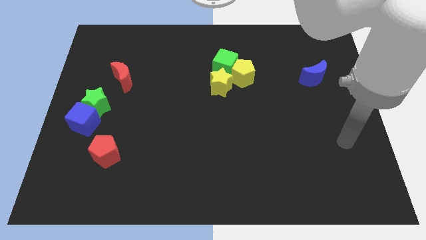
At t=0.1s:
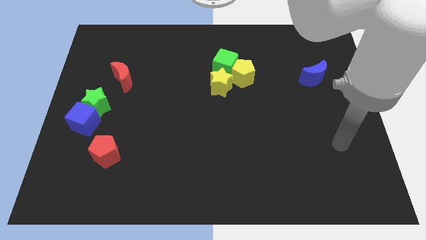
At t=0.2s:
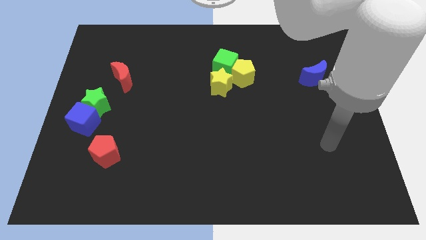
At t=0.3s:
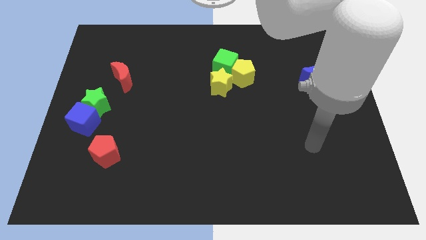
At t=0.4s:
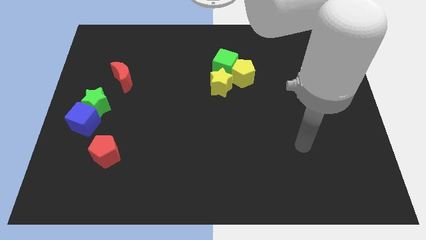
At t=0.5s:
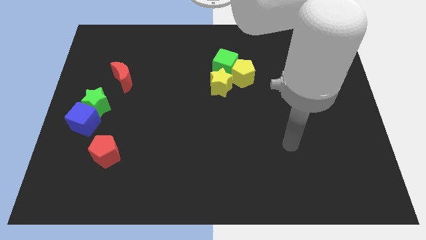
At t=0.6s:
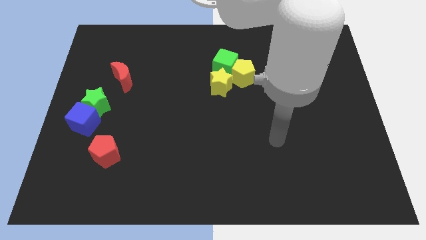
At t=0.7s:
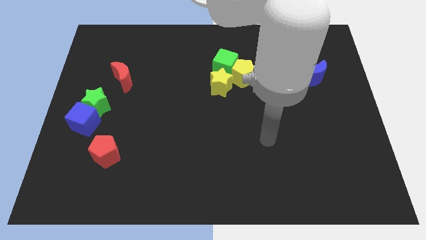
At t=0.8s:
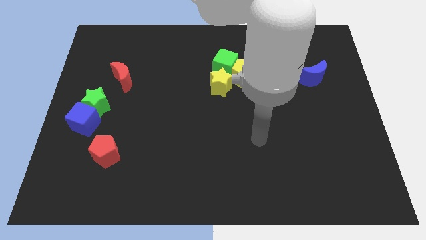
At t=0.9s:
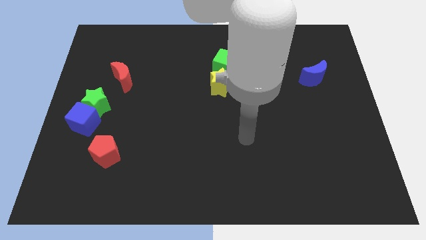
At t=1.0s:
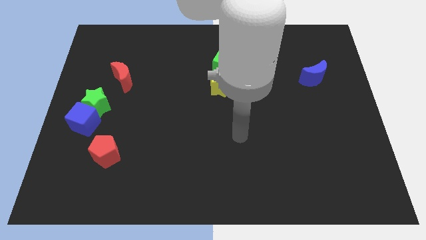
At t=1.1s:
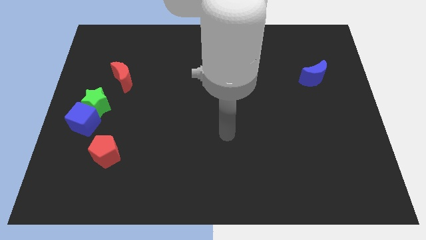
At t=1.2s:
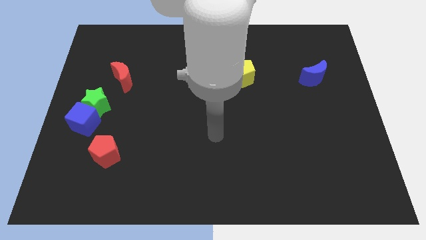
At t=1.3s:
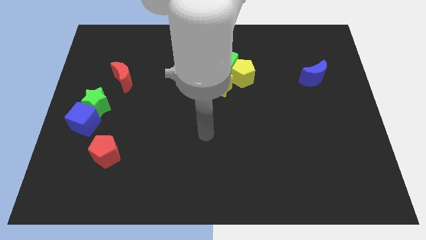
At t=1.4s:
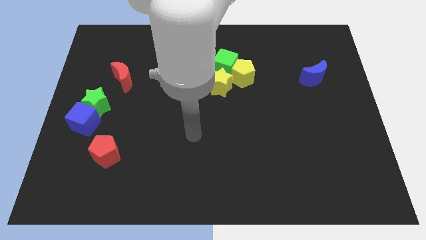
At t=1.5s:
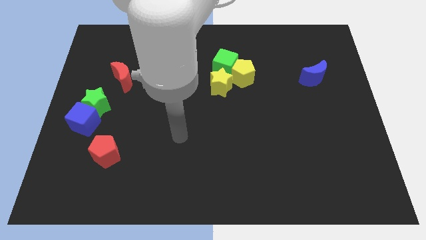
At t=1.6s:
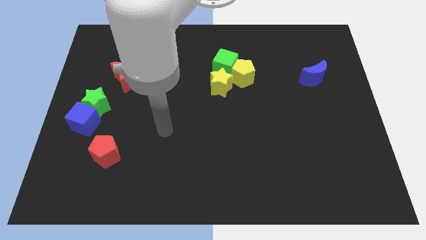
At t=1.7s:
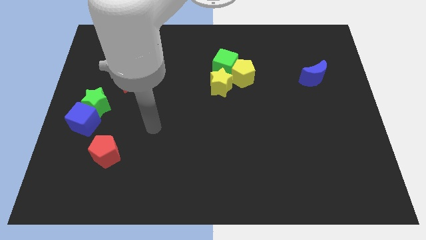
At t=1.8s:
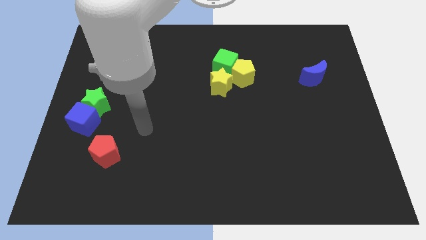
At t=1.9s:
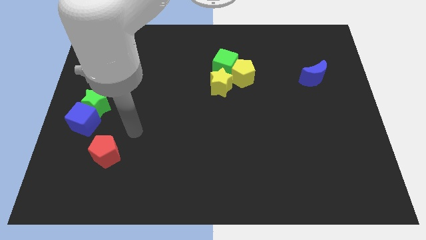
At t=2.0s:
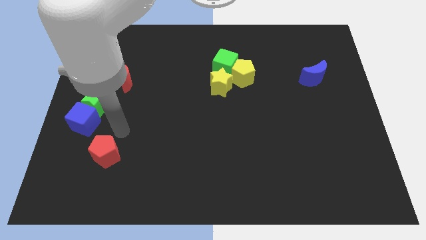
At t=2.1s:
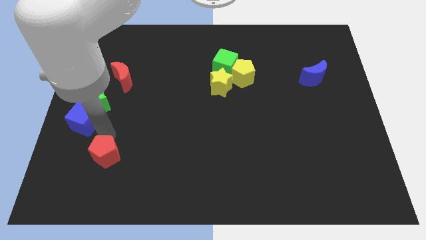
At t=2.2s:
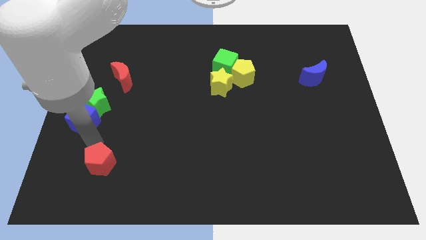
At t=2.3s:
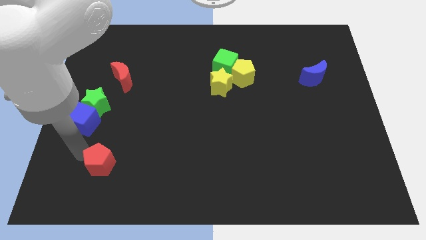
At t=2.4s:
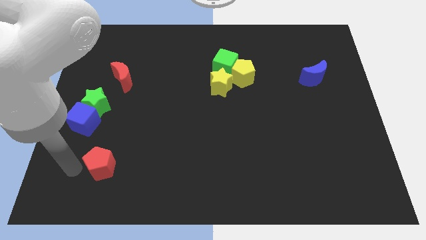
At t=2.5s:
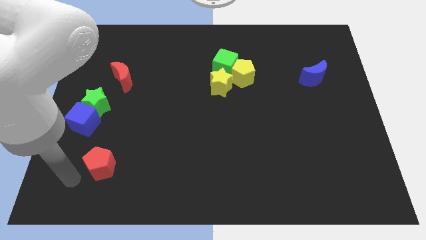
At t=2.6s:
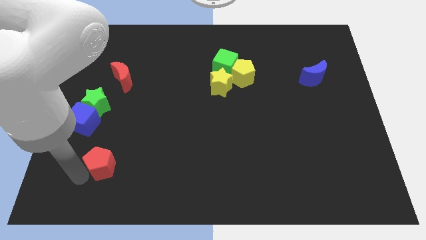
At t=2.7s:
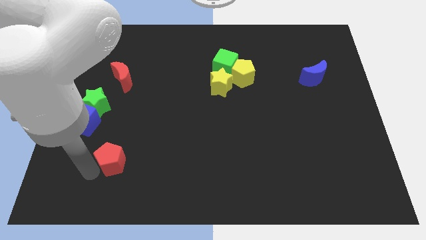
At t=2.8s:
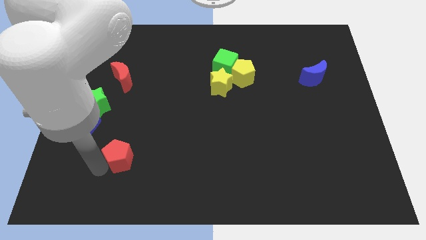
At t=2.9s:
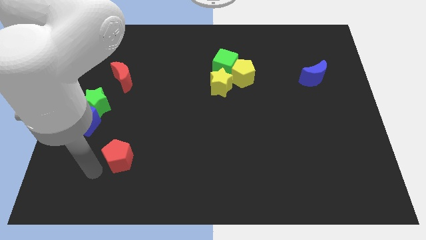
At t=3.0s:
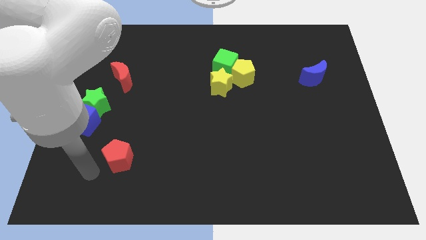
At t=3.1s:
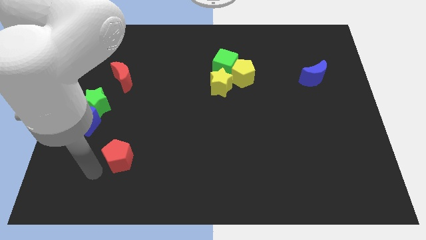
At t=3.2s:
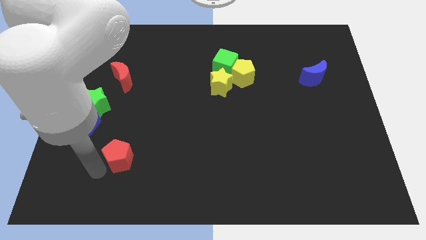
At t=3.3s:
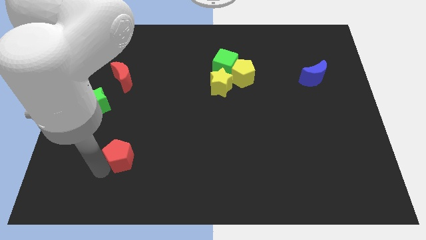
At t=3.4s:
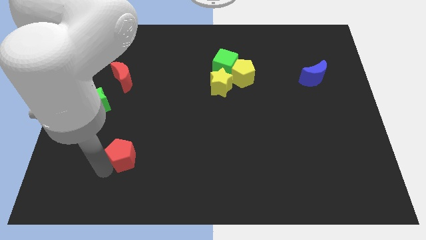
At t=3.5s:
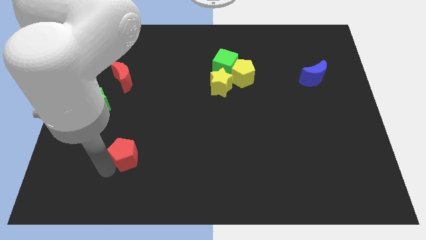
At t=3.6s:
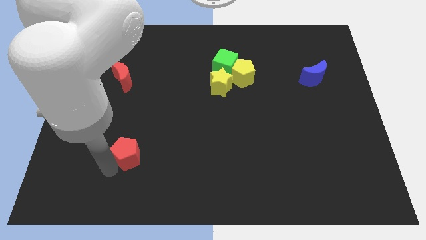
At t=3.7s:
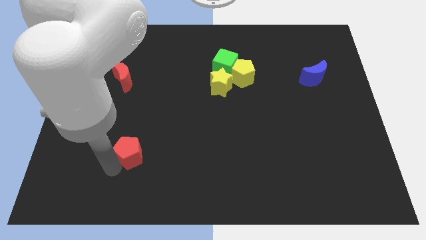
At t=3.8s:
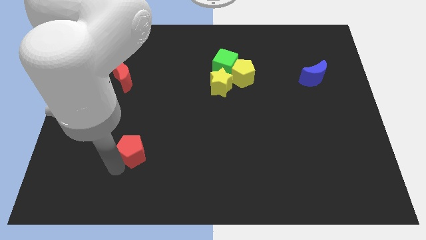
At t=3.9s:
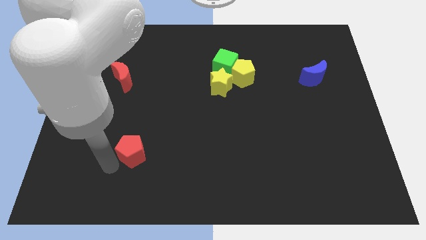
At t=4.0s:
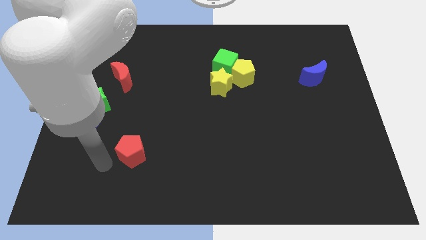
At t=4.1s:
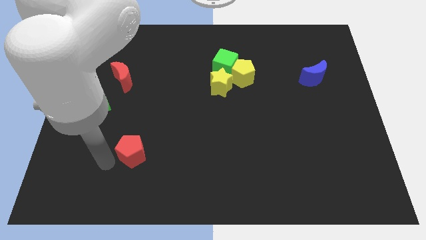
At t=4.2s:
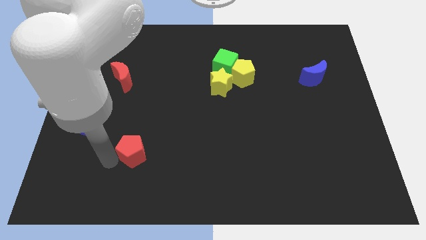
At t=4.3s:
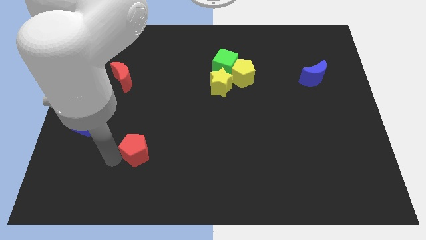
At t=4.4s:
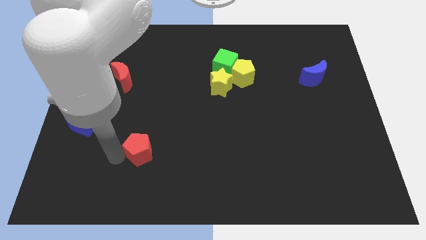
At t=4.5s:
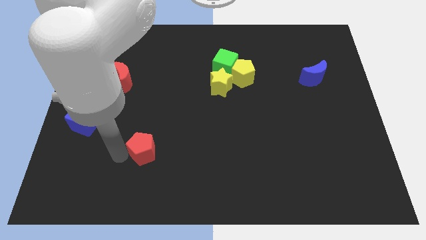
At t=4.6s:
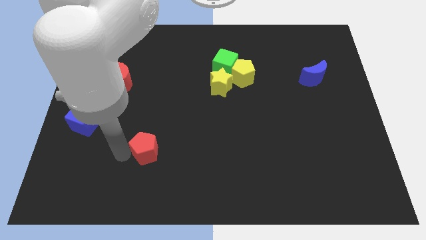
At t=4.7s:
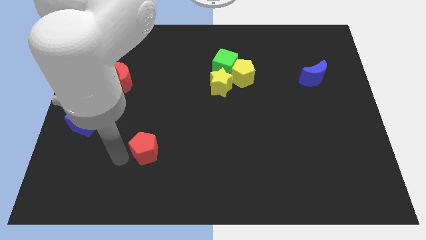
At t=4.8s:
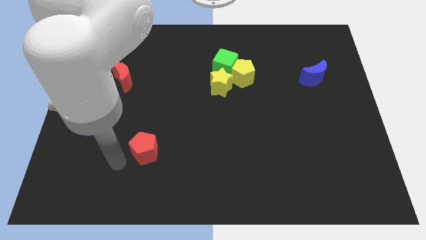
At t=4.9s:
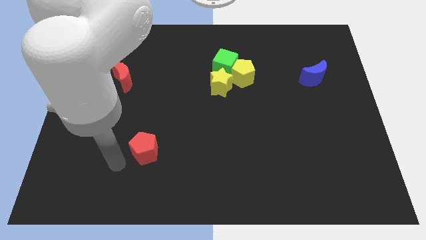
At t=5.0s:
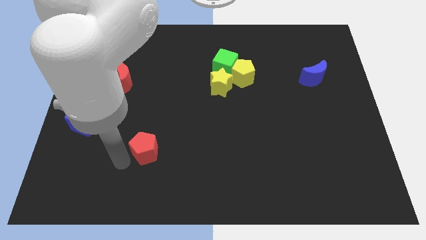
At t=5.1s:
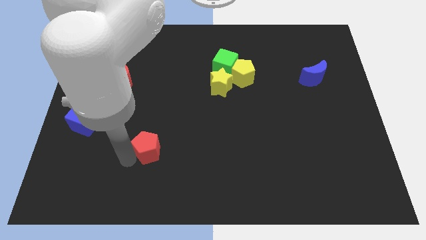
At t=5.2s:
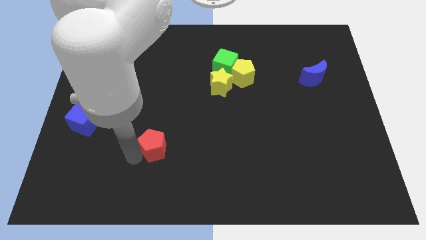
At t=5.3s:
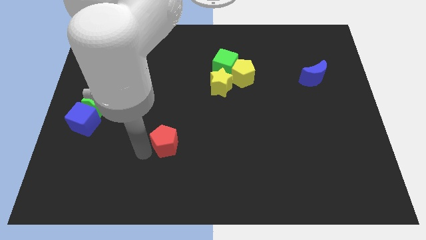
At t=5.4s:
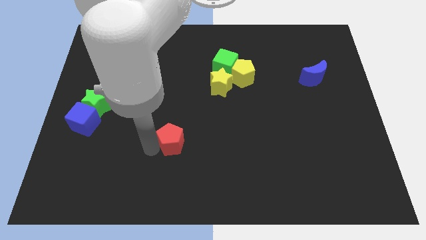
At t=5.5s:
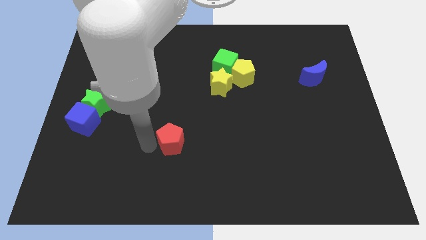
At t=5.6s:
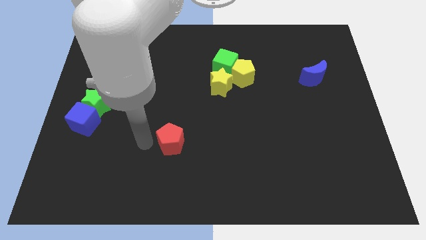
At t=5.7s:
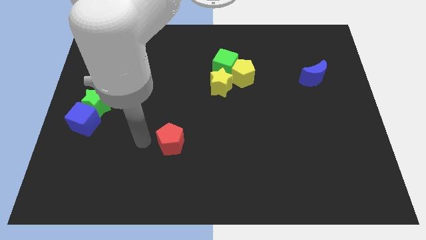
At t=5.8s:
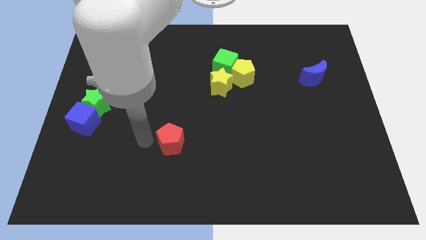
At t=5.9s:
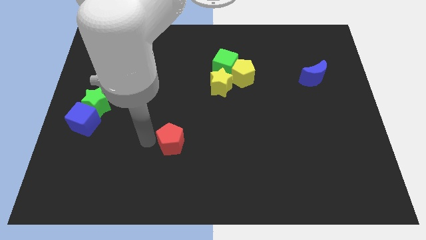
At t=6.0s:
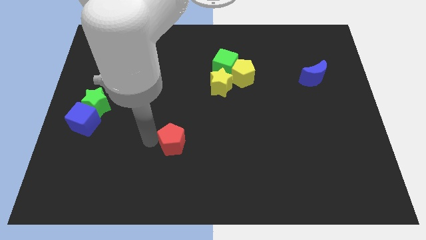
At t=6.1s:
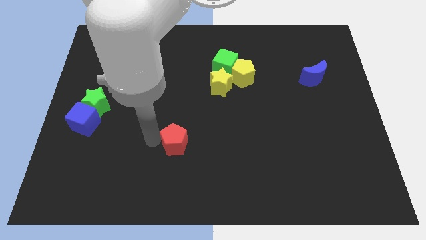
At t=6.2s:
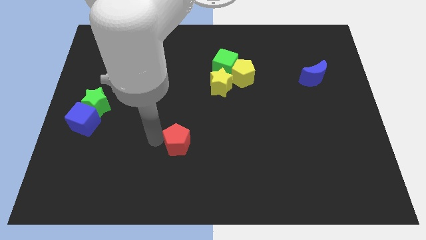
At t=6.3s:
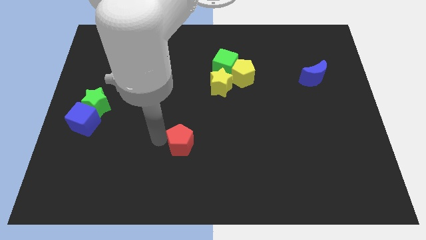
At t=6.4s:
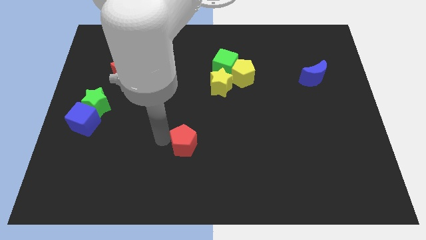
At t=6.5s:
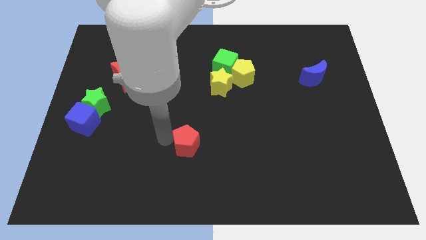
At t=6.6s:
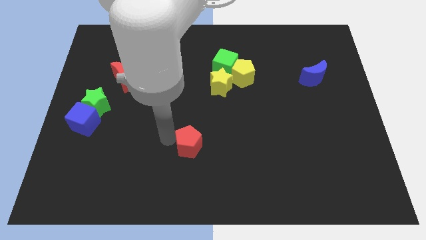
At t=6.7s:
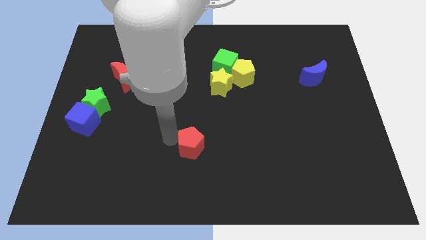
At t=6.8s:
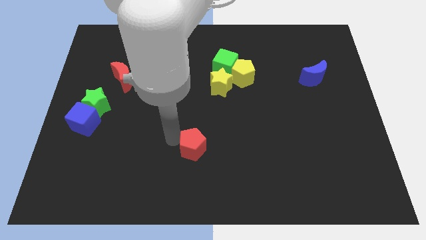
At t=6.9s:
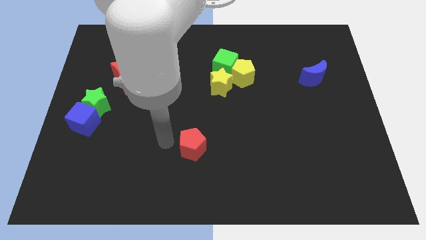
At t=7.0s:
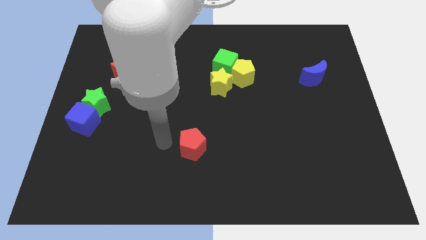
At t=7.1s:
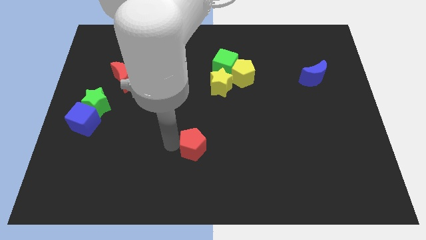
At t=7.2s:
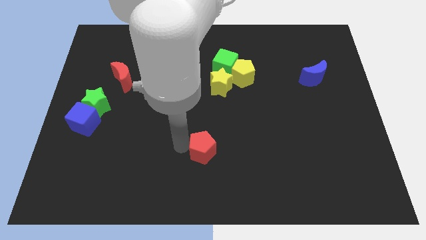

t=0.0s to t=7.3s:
push the red pentagon right

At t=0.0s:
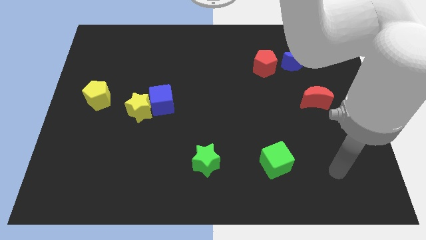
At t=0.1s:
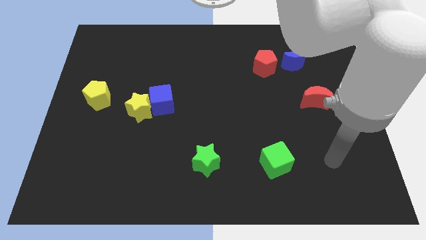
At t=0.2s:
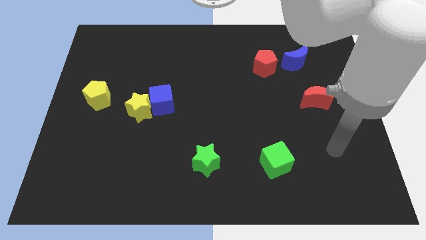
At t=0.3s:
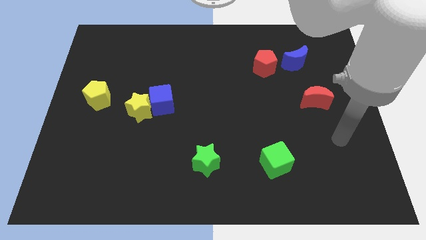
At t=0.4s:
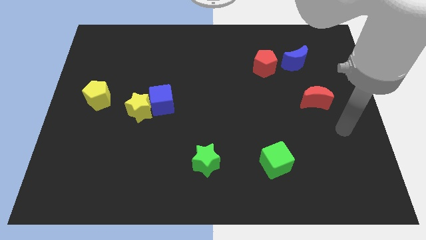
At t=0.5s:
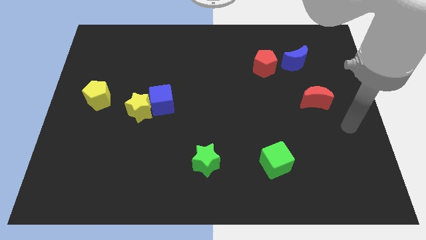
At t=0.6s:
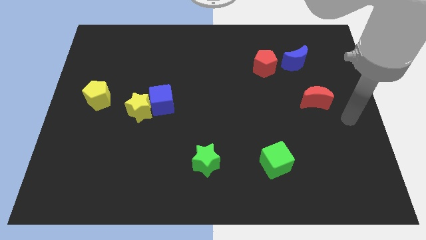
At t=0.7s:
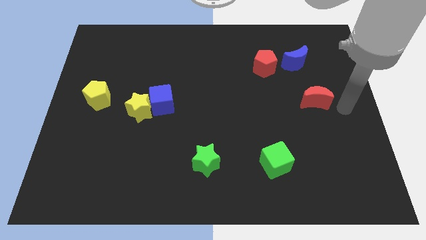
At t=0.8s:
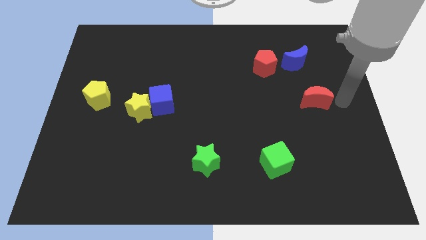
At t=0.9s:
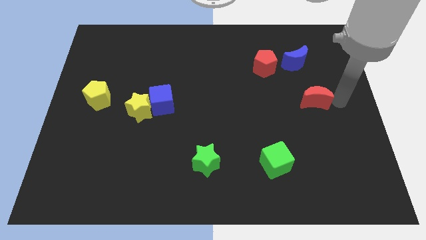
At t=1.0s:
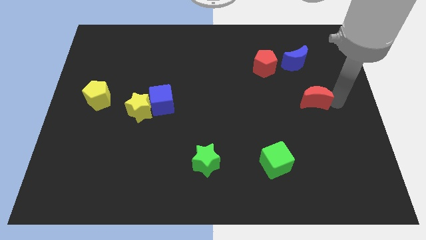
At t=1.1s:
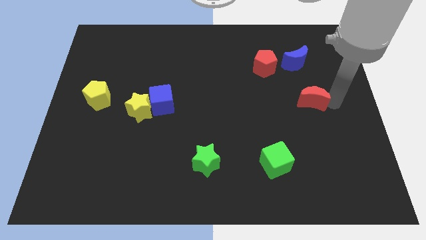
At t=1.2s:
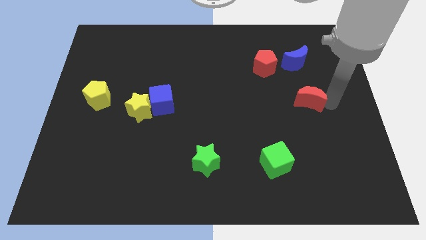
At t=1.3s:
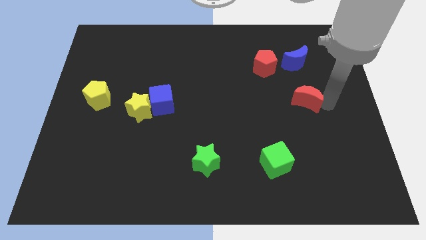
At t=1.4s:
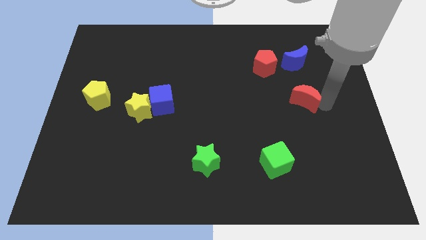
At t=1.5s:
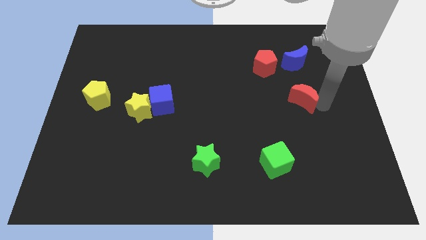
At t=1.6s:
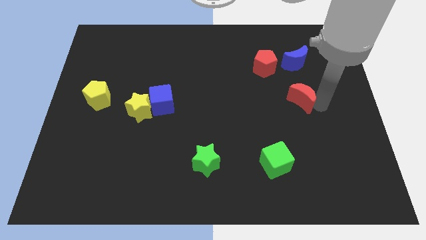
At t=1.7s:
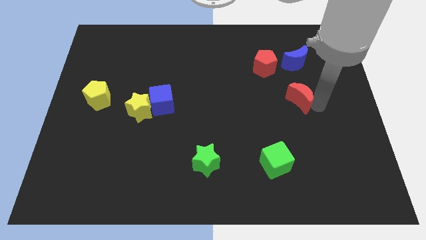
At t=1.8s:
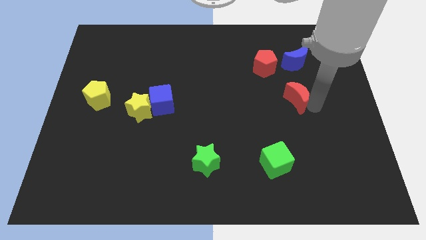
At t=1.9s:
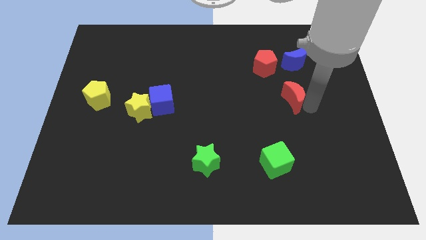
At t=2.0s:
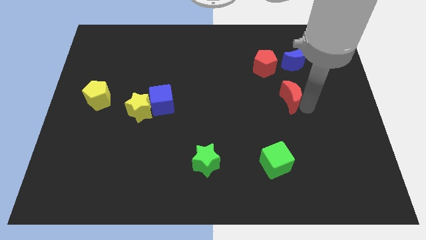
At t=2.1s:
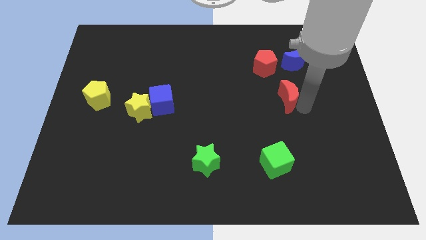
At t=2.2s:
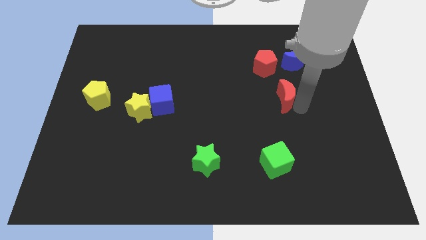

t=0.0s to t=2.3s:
slightly push the red moon left
